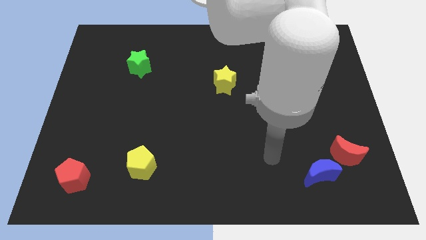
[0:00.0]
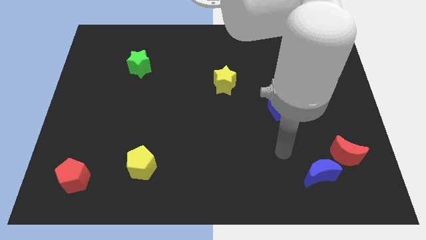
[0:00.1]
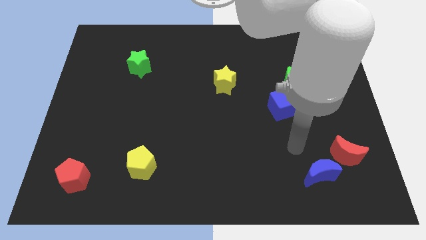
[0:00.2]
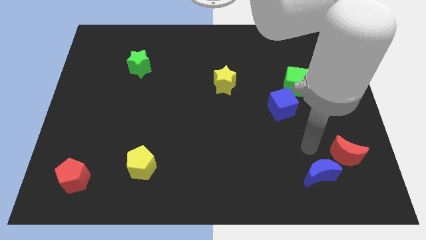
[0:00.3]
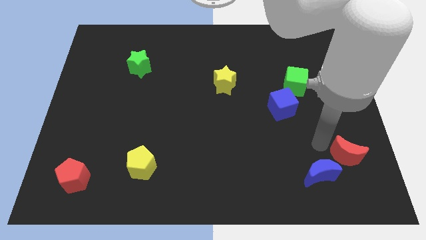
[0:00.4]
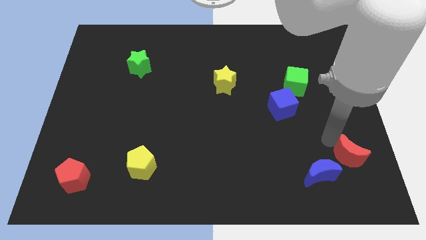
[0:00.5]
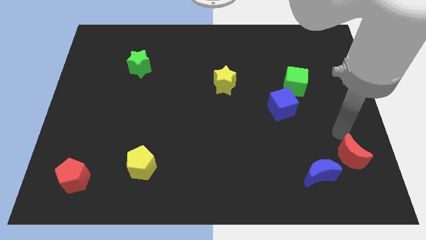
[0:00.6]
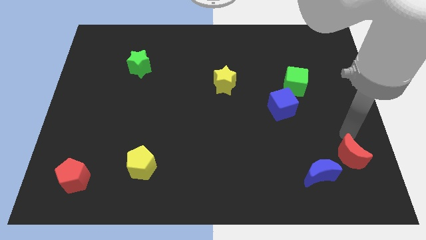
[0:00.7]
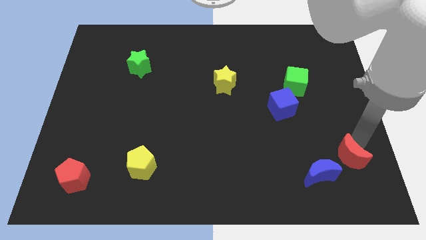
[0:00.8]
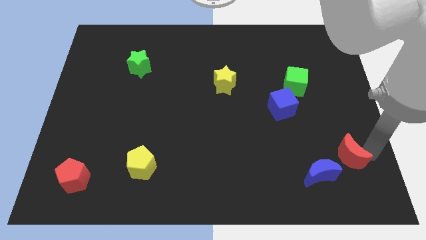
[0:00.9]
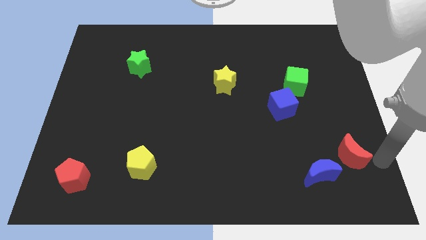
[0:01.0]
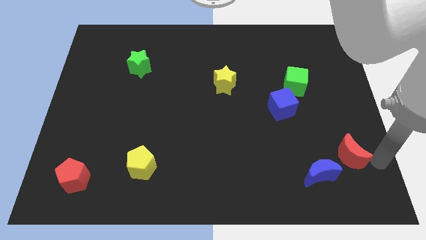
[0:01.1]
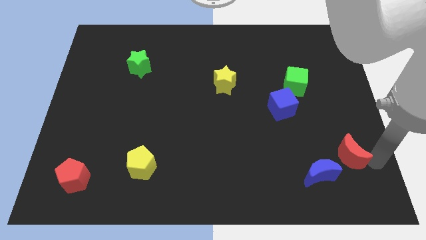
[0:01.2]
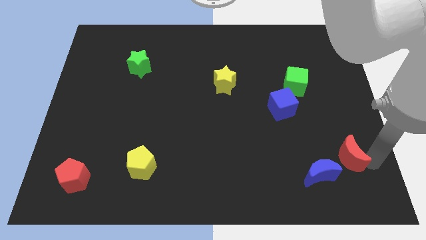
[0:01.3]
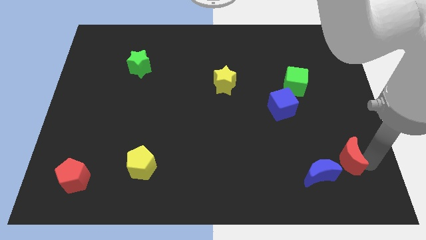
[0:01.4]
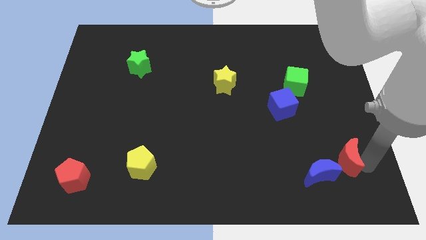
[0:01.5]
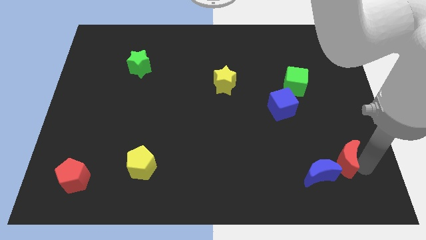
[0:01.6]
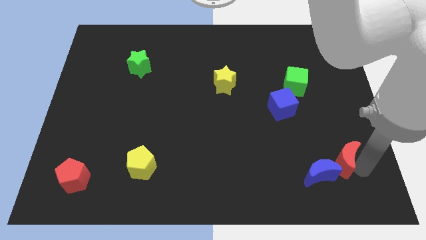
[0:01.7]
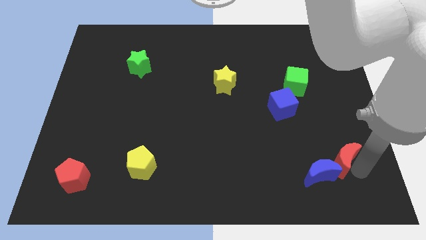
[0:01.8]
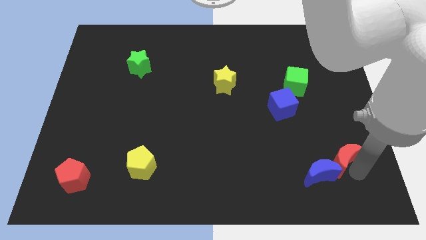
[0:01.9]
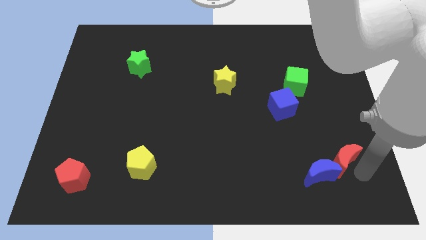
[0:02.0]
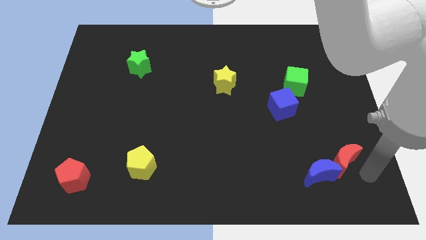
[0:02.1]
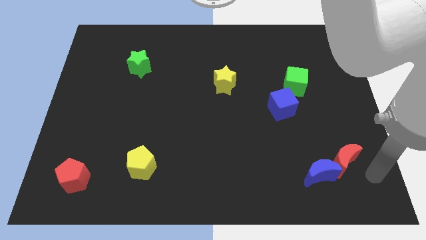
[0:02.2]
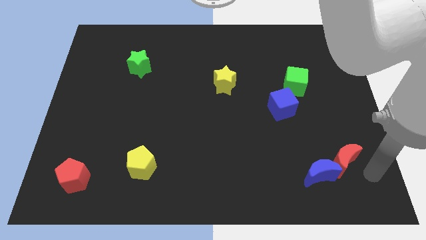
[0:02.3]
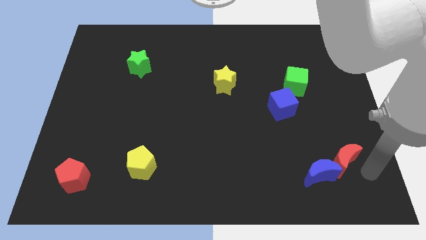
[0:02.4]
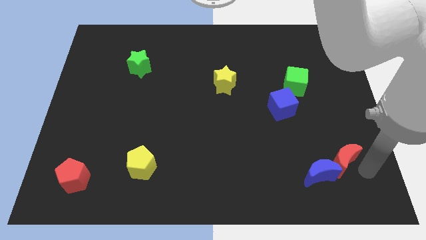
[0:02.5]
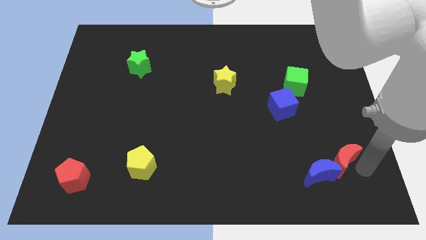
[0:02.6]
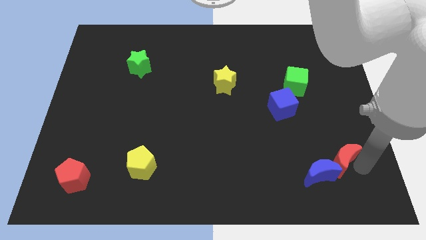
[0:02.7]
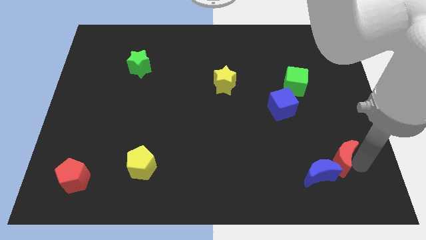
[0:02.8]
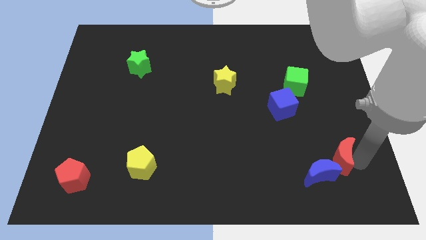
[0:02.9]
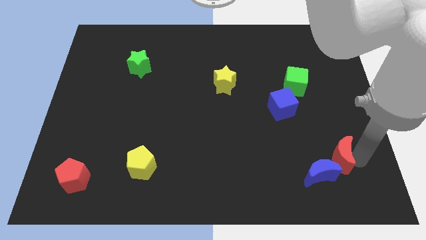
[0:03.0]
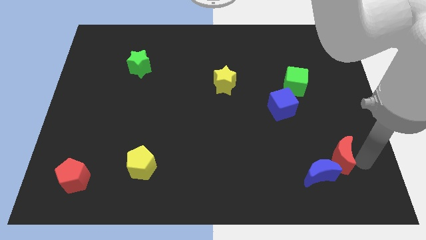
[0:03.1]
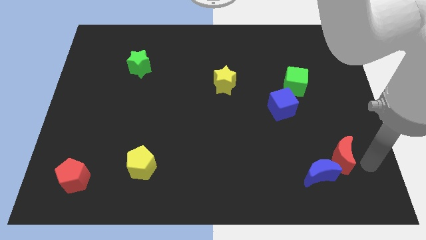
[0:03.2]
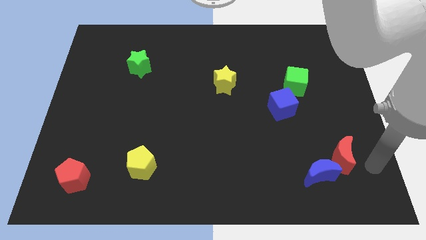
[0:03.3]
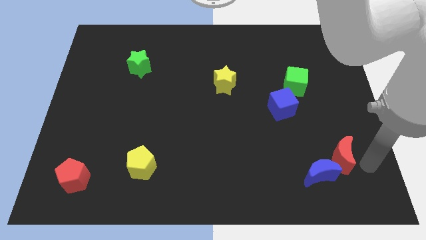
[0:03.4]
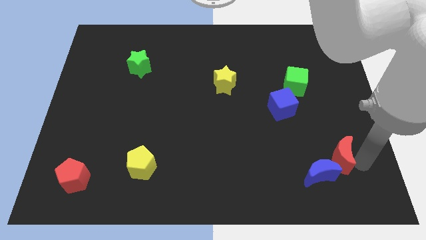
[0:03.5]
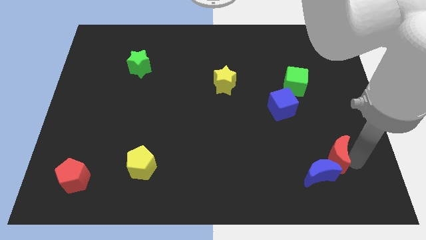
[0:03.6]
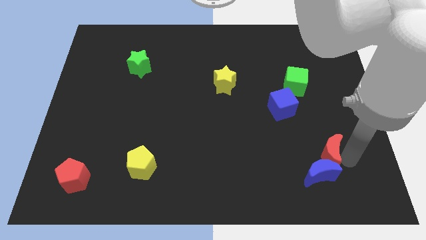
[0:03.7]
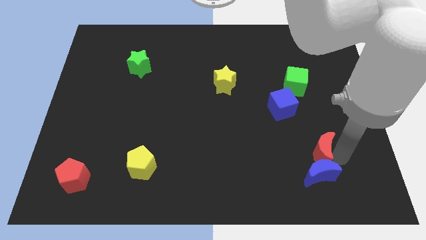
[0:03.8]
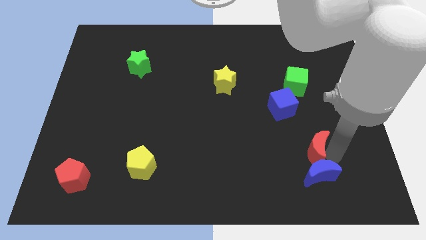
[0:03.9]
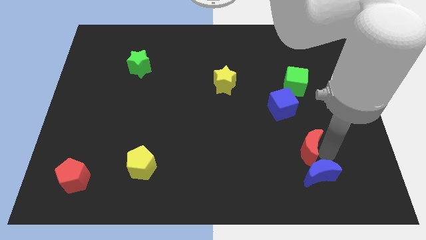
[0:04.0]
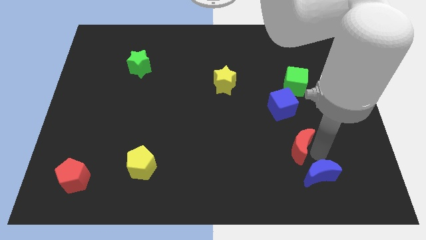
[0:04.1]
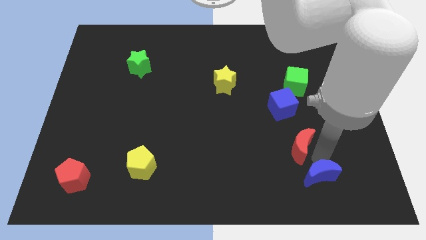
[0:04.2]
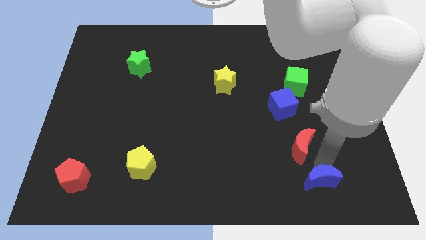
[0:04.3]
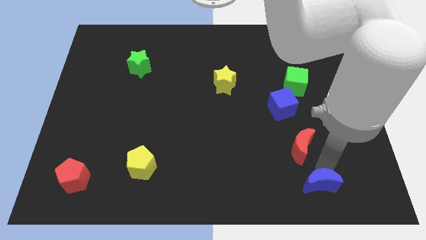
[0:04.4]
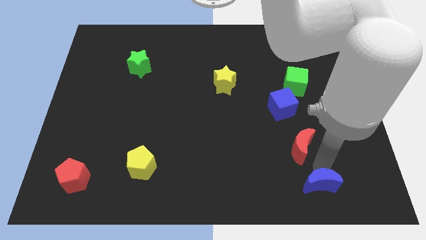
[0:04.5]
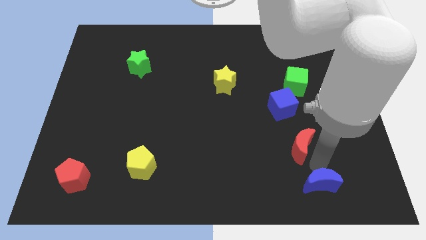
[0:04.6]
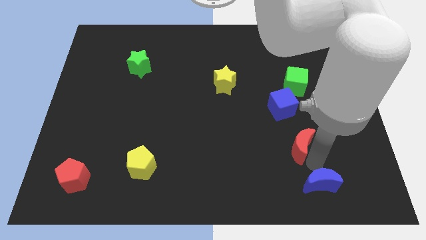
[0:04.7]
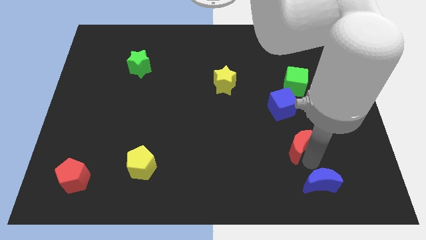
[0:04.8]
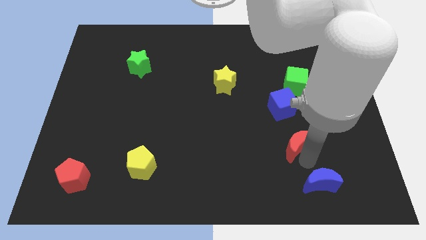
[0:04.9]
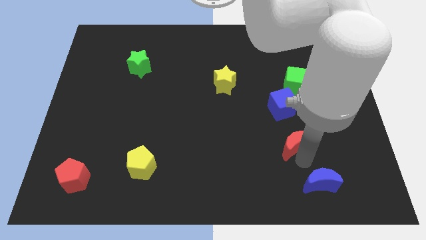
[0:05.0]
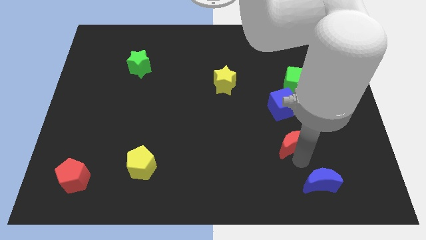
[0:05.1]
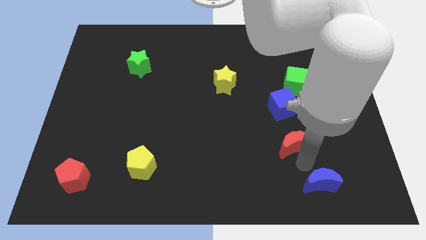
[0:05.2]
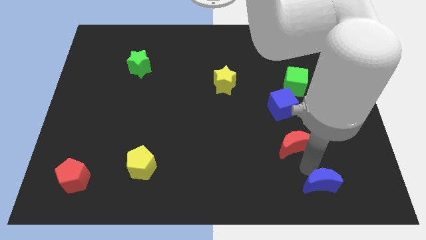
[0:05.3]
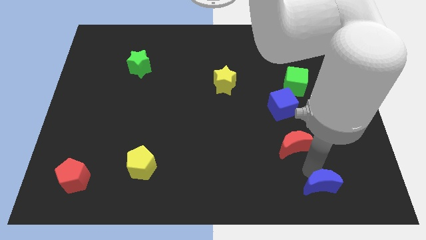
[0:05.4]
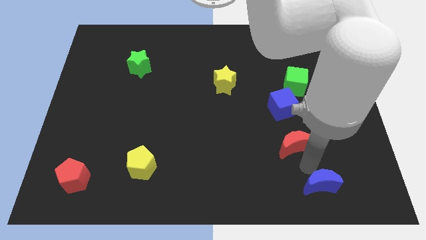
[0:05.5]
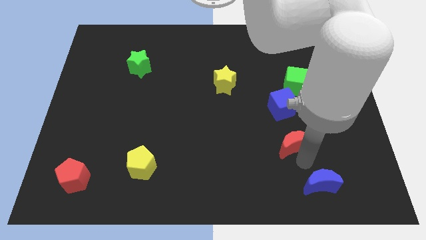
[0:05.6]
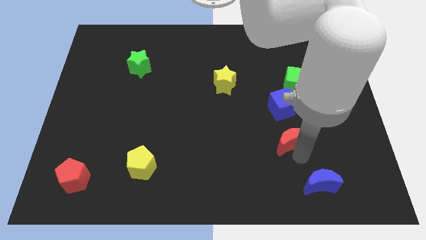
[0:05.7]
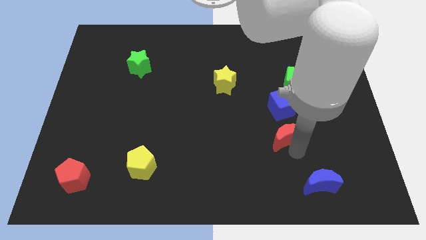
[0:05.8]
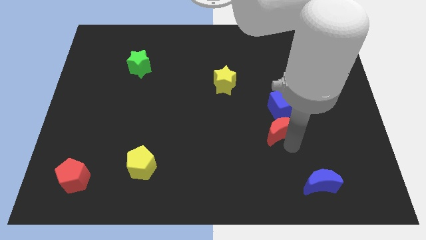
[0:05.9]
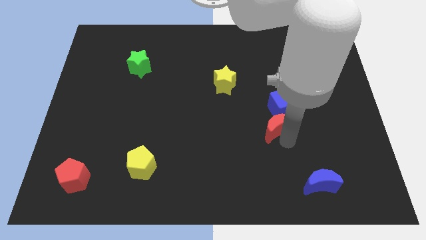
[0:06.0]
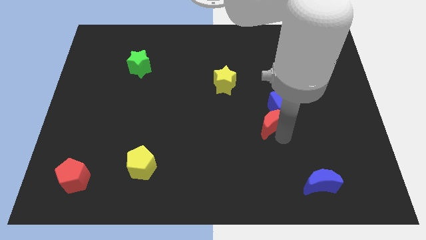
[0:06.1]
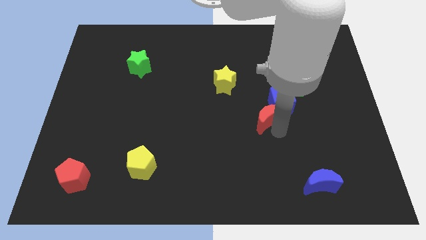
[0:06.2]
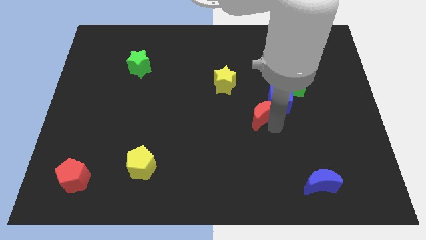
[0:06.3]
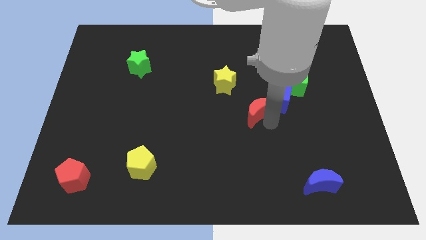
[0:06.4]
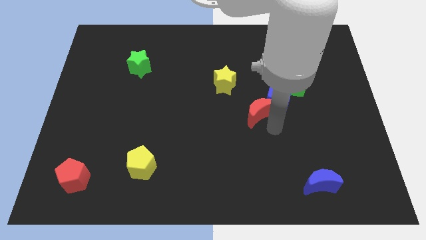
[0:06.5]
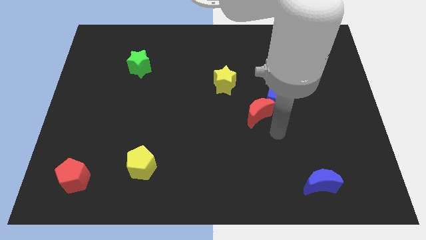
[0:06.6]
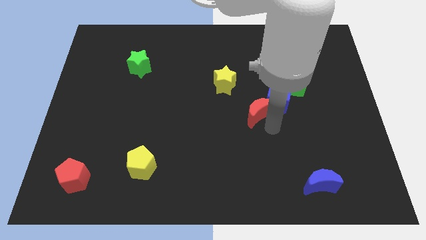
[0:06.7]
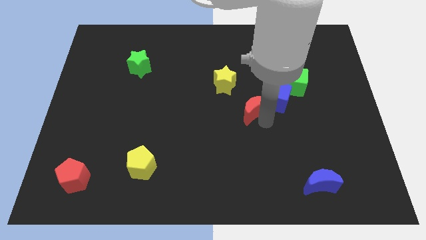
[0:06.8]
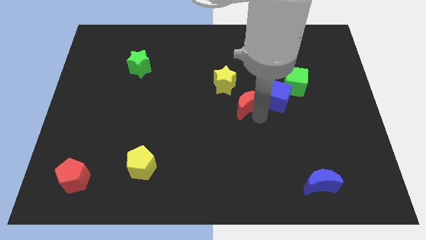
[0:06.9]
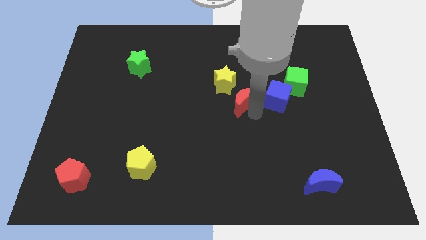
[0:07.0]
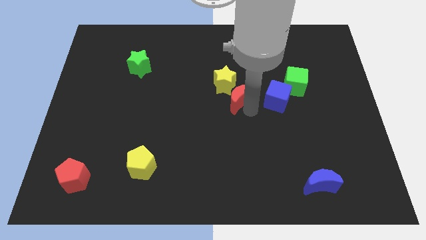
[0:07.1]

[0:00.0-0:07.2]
put the red moon to the yellow star
